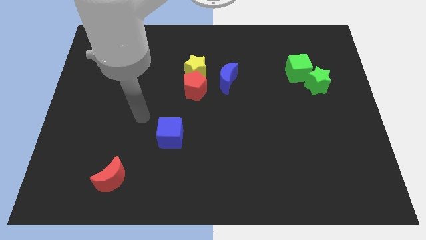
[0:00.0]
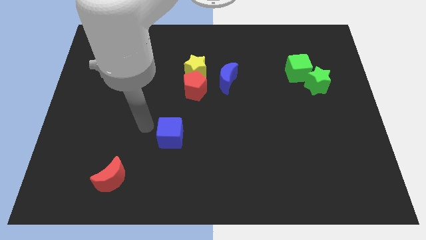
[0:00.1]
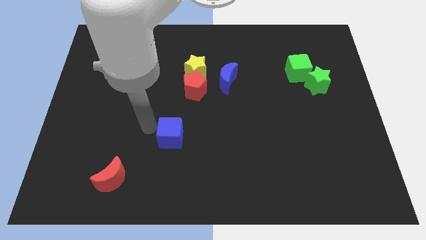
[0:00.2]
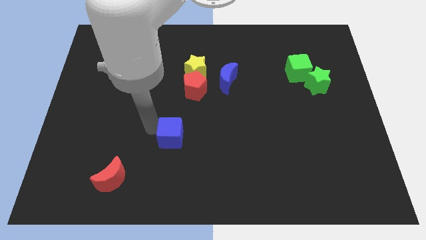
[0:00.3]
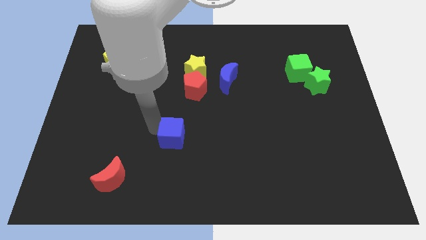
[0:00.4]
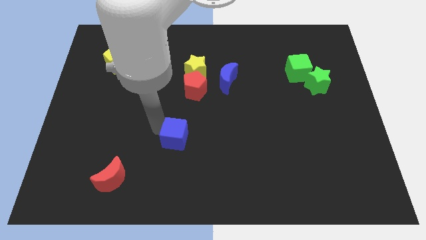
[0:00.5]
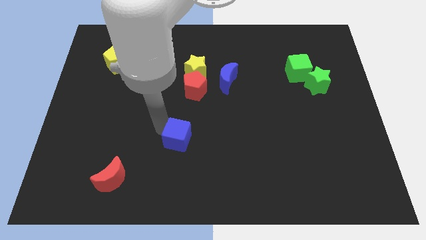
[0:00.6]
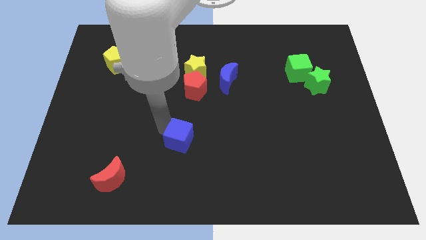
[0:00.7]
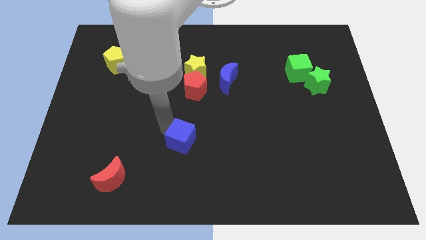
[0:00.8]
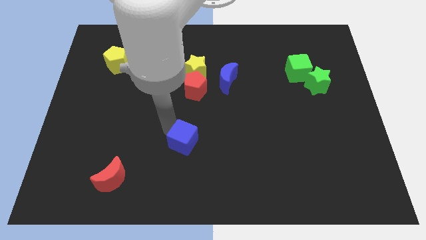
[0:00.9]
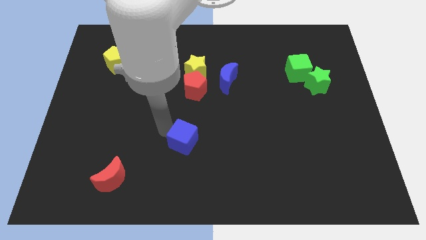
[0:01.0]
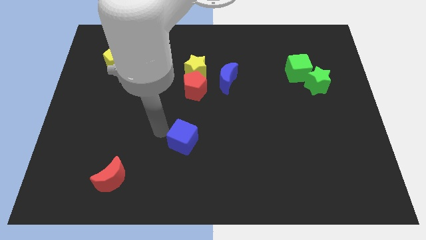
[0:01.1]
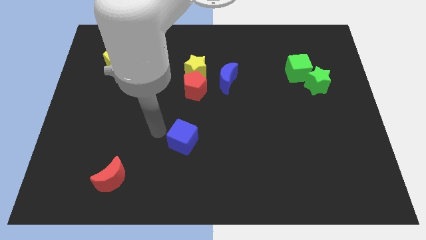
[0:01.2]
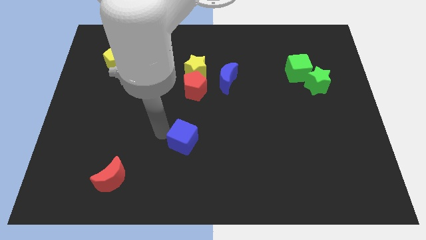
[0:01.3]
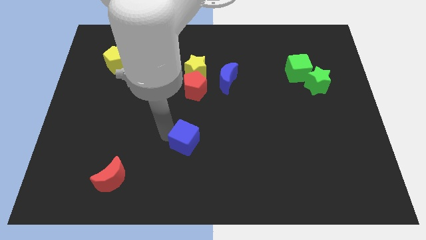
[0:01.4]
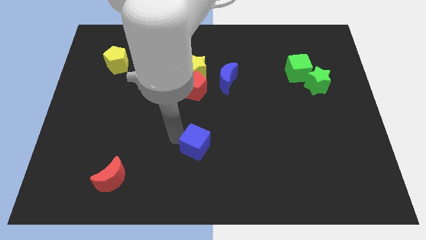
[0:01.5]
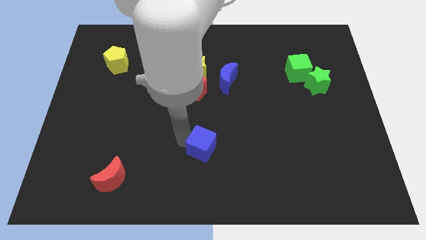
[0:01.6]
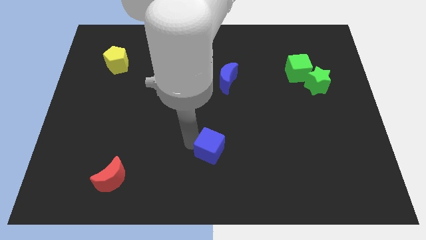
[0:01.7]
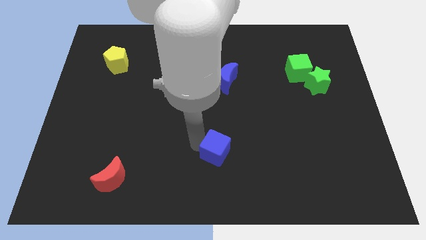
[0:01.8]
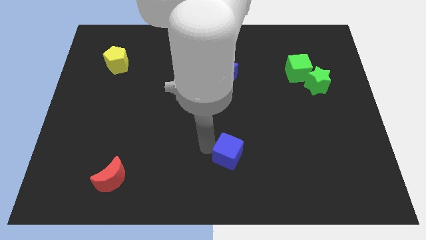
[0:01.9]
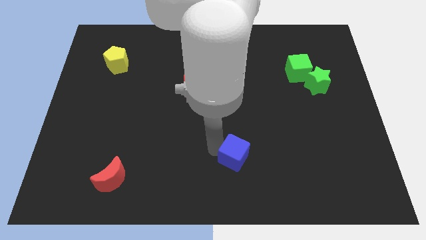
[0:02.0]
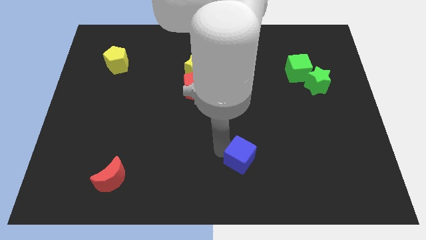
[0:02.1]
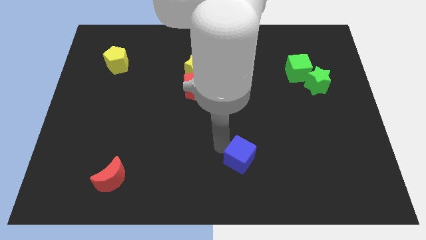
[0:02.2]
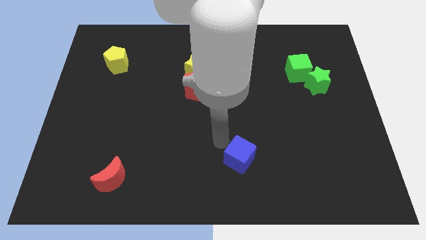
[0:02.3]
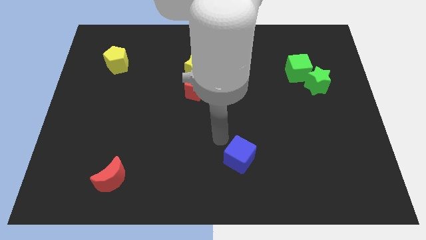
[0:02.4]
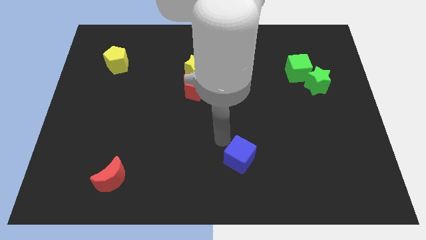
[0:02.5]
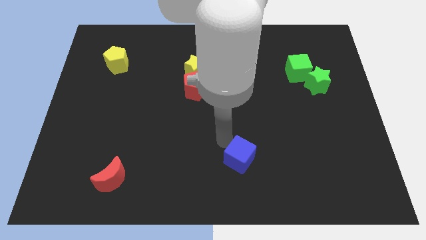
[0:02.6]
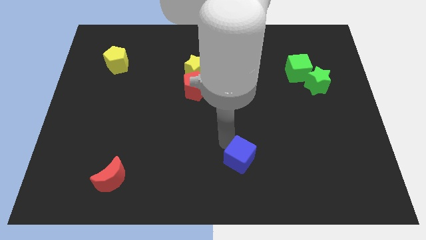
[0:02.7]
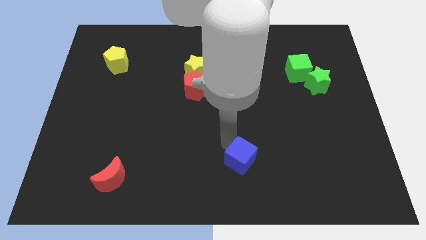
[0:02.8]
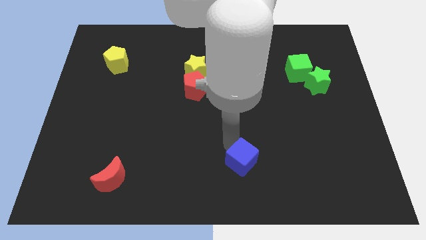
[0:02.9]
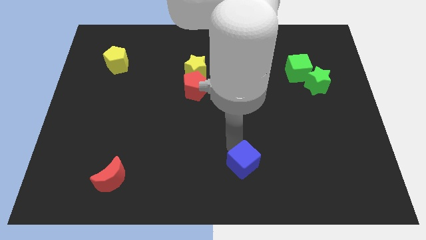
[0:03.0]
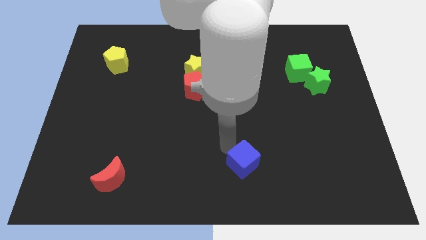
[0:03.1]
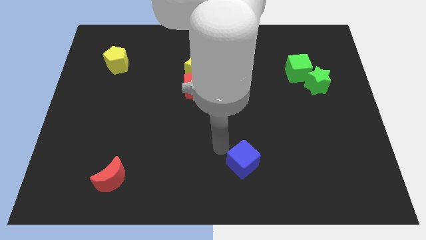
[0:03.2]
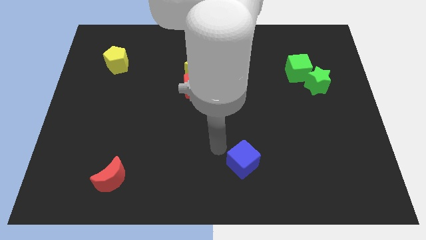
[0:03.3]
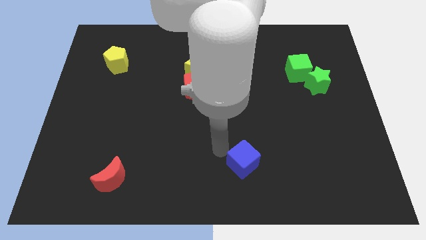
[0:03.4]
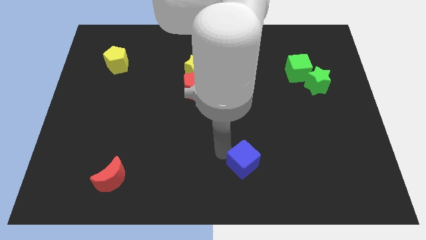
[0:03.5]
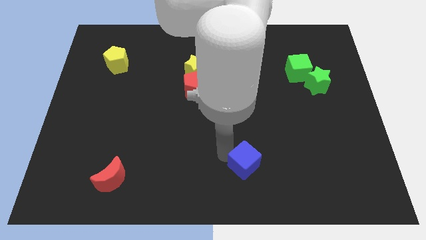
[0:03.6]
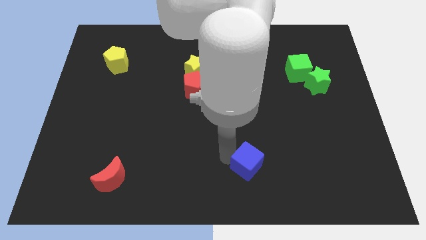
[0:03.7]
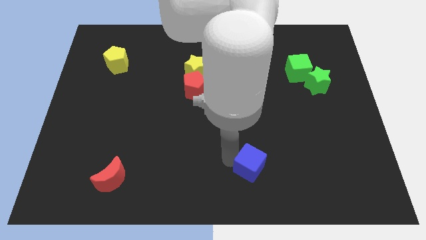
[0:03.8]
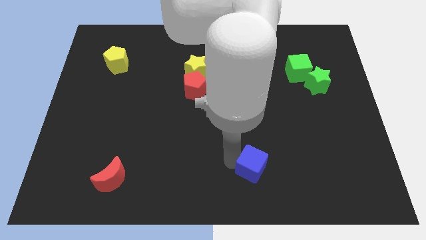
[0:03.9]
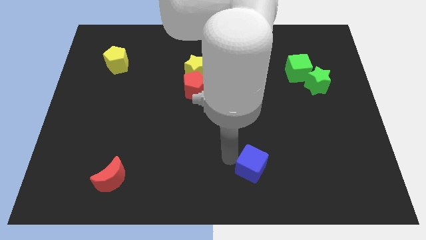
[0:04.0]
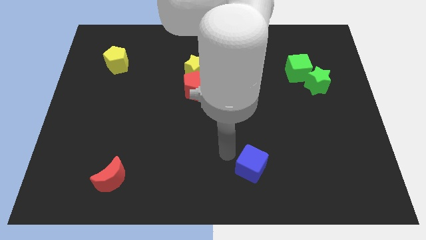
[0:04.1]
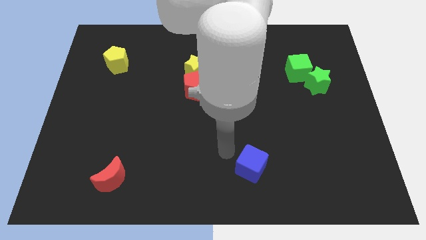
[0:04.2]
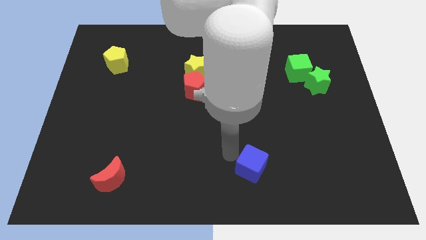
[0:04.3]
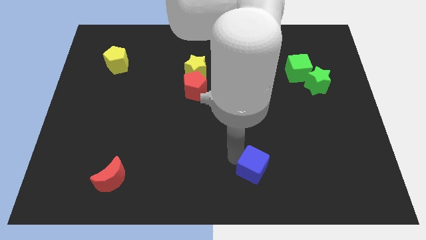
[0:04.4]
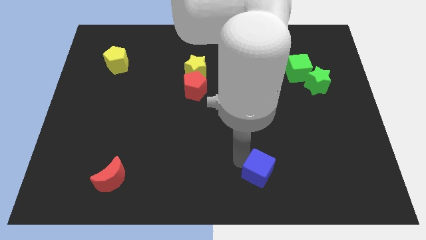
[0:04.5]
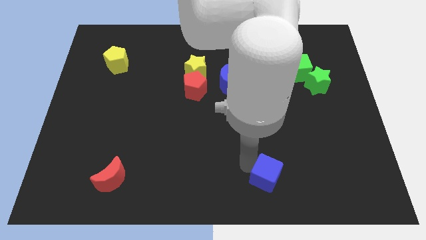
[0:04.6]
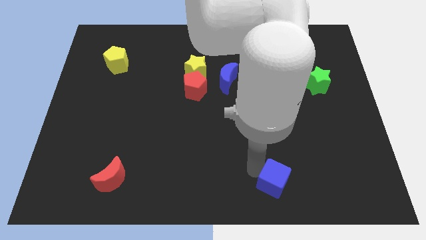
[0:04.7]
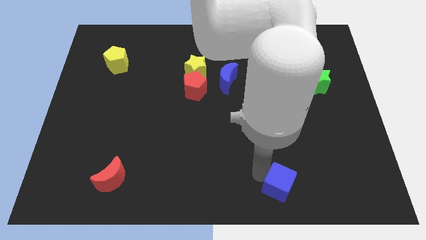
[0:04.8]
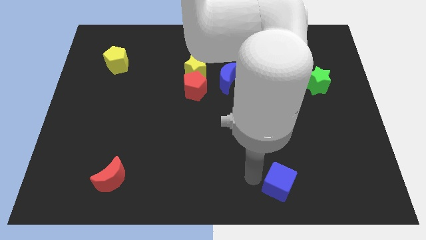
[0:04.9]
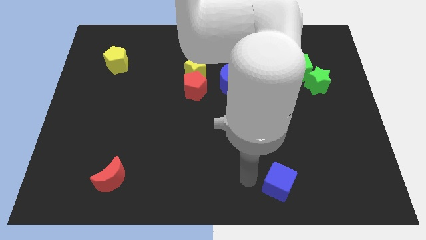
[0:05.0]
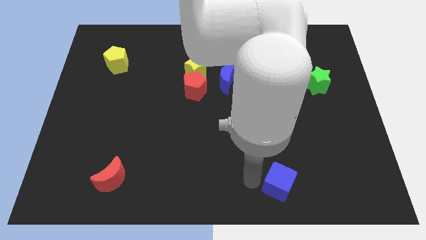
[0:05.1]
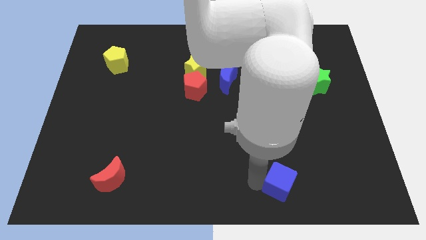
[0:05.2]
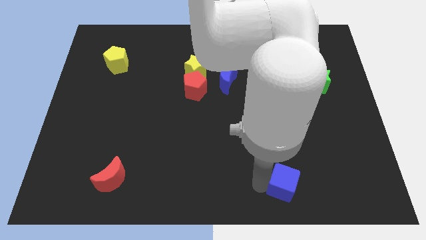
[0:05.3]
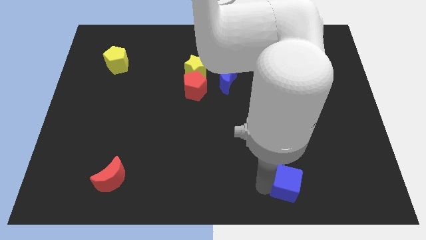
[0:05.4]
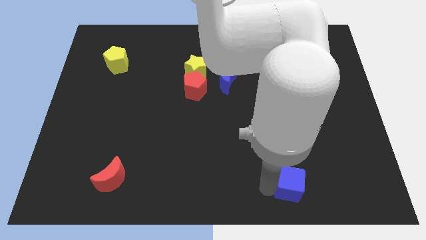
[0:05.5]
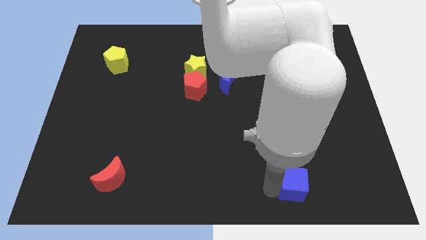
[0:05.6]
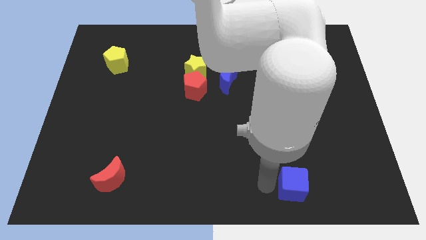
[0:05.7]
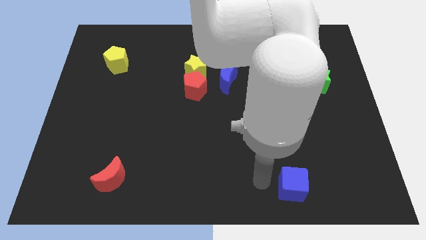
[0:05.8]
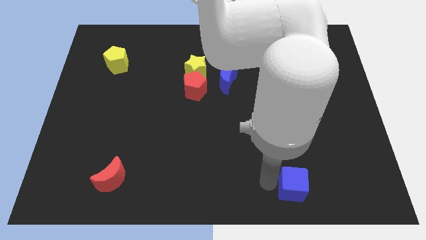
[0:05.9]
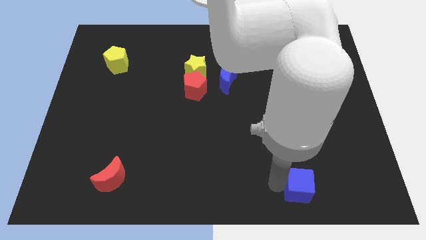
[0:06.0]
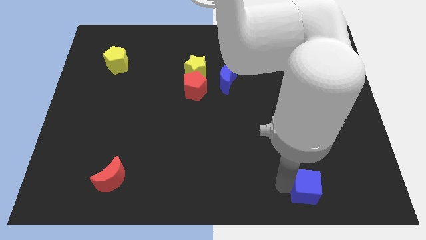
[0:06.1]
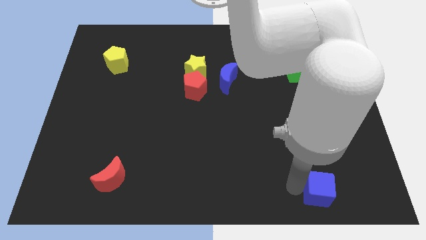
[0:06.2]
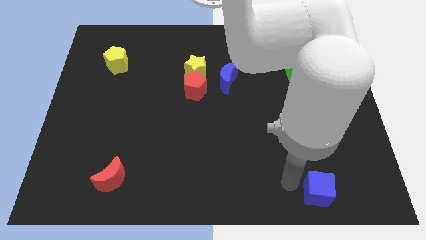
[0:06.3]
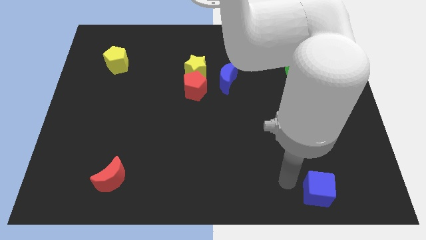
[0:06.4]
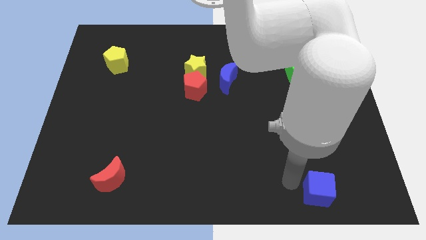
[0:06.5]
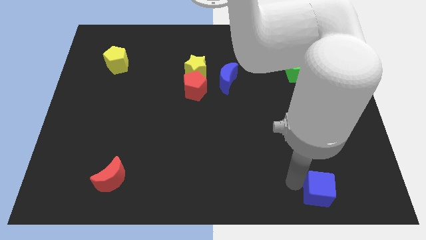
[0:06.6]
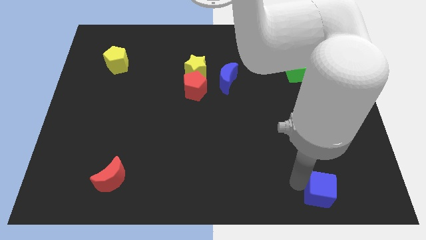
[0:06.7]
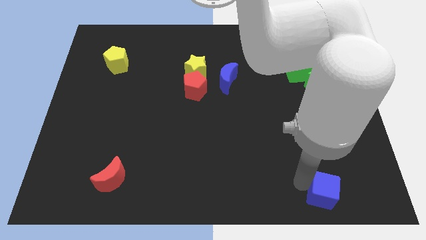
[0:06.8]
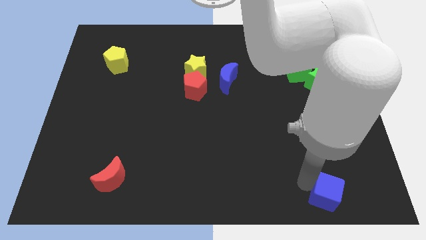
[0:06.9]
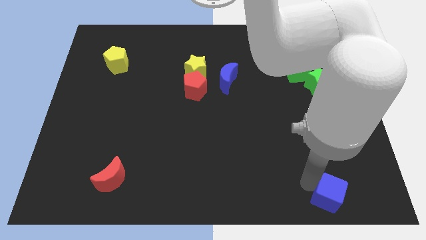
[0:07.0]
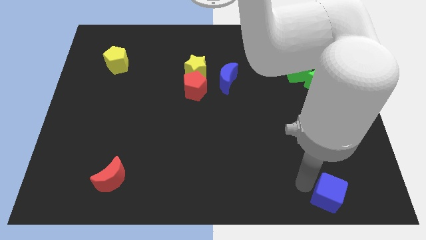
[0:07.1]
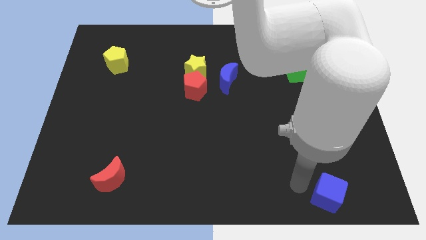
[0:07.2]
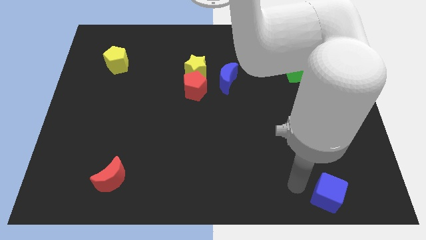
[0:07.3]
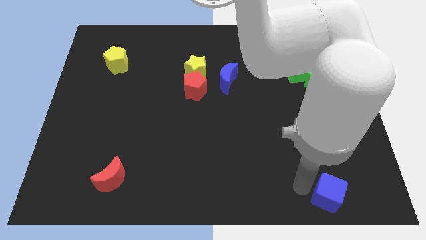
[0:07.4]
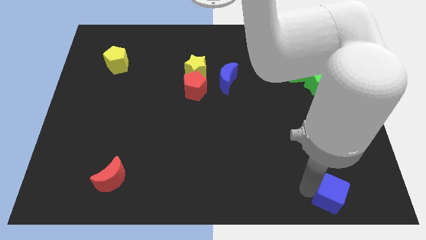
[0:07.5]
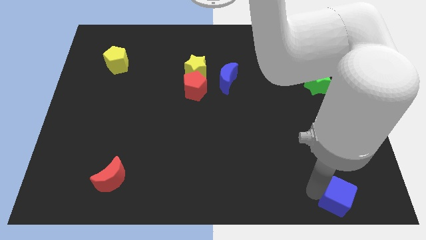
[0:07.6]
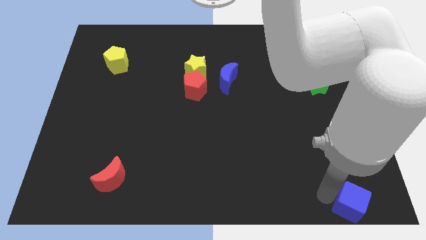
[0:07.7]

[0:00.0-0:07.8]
put the blue cube to the bottom right of the board
